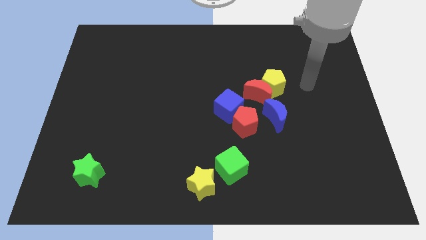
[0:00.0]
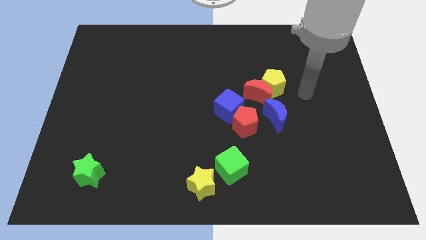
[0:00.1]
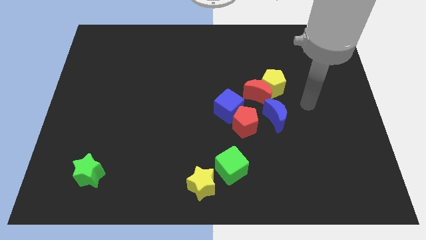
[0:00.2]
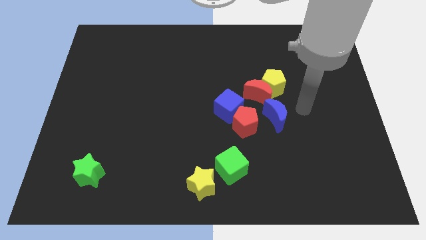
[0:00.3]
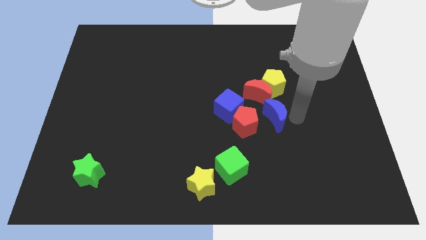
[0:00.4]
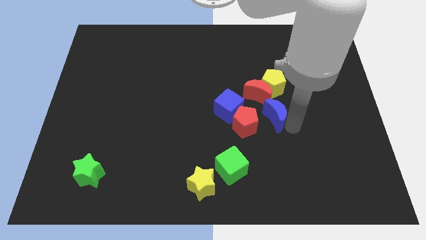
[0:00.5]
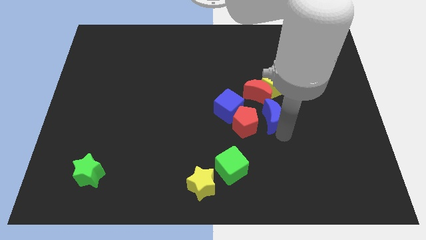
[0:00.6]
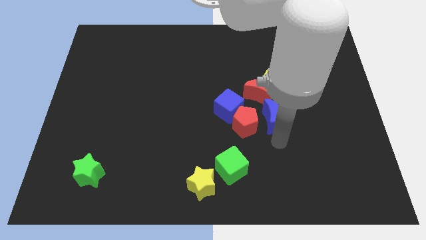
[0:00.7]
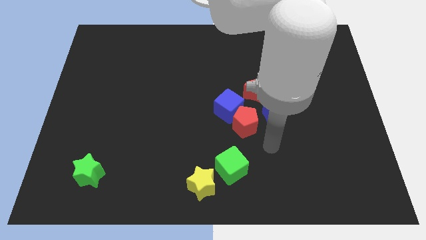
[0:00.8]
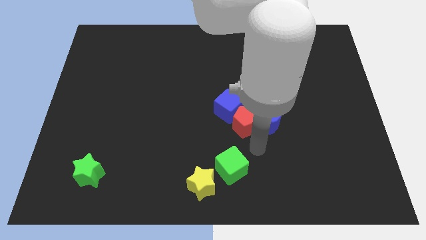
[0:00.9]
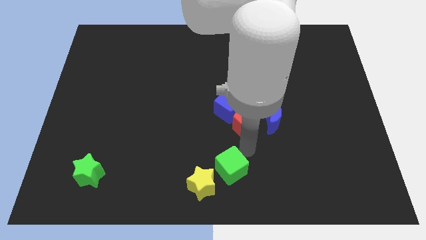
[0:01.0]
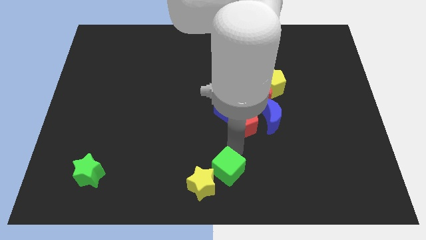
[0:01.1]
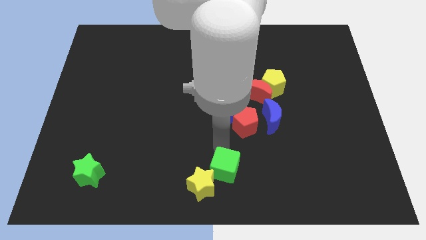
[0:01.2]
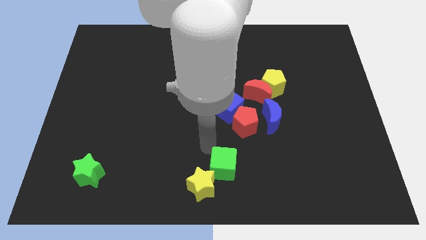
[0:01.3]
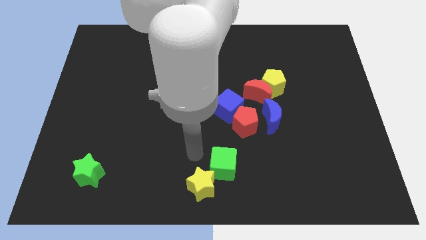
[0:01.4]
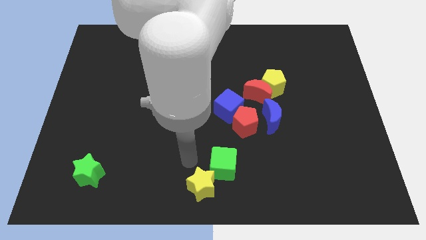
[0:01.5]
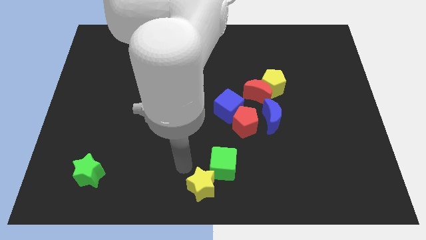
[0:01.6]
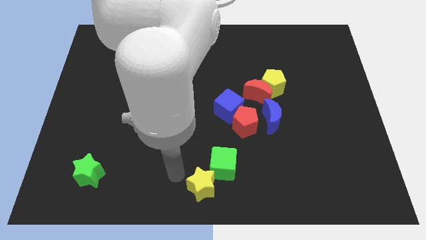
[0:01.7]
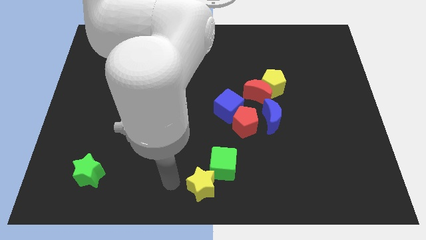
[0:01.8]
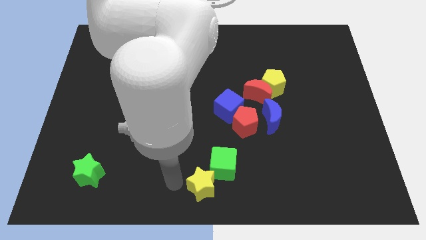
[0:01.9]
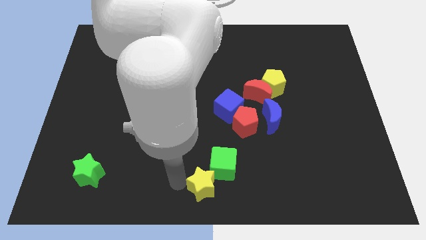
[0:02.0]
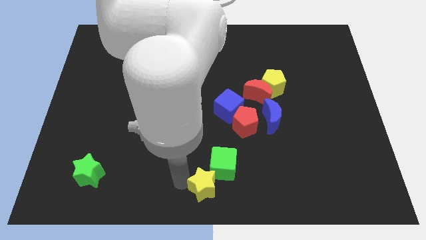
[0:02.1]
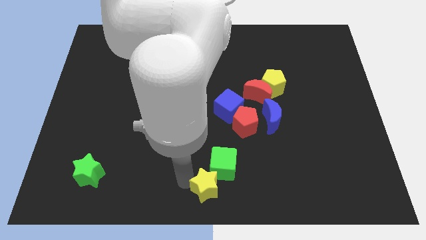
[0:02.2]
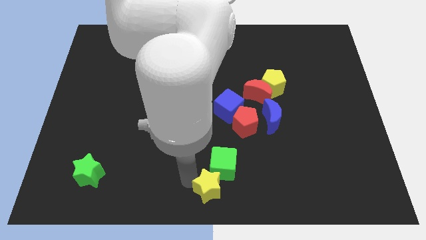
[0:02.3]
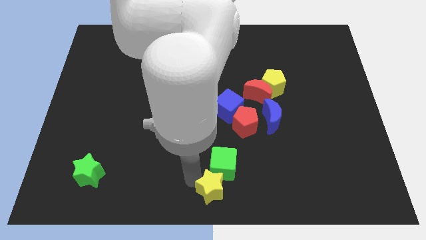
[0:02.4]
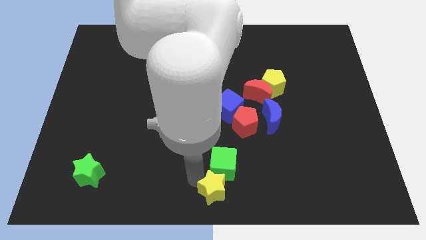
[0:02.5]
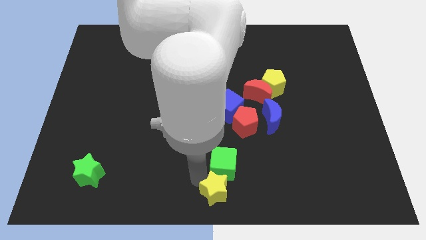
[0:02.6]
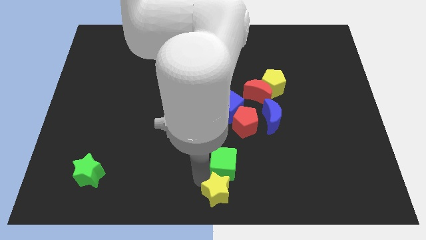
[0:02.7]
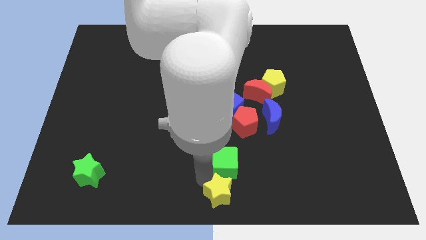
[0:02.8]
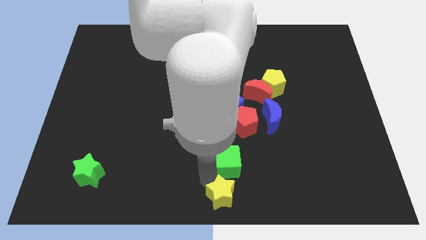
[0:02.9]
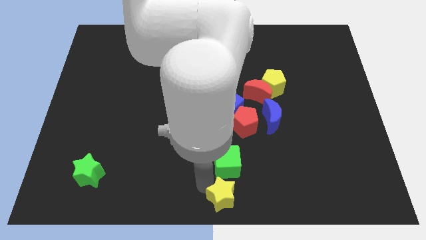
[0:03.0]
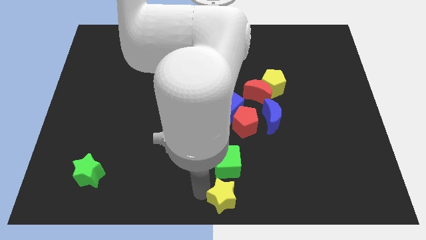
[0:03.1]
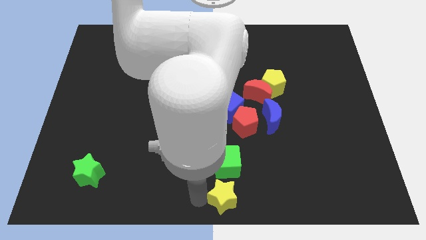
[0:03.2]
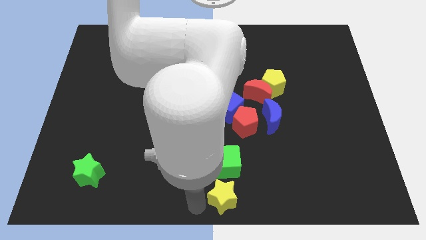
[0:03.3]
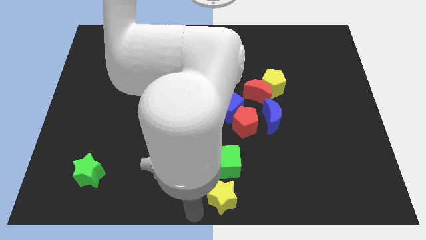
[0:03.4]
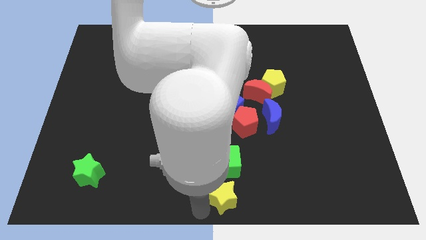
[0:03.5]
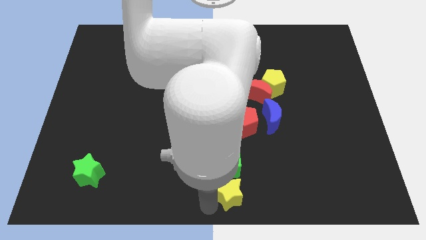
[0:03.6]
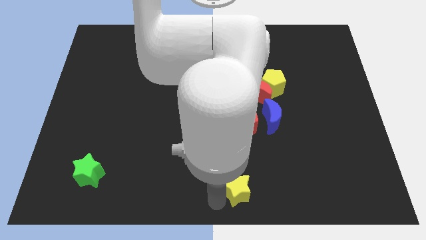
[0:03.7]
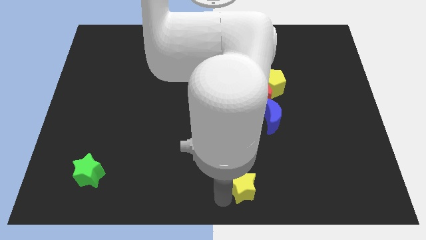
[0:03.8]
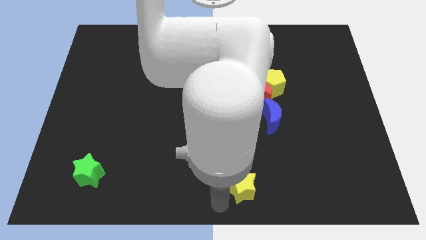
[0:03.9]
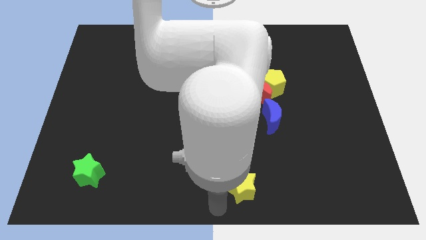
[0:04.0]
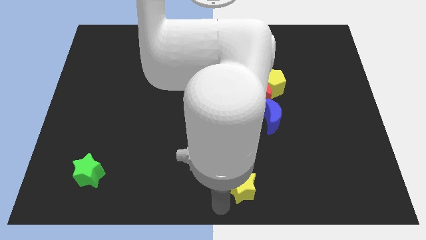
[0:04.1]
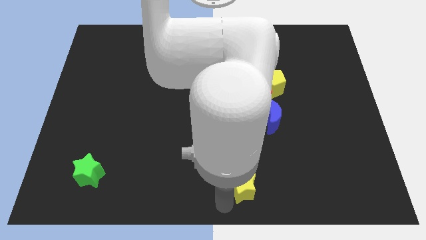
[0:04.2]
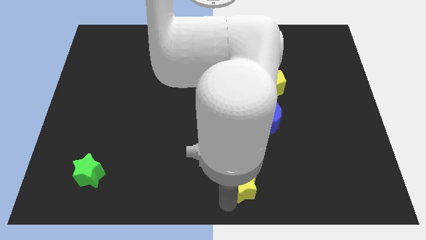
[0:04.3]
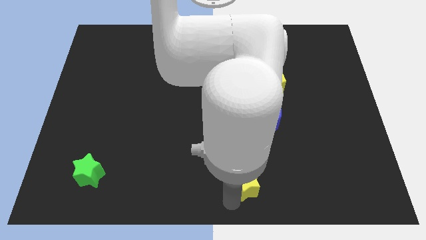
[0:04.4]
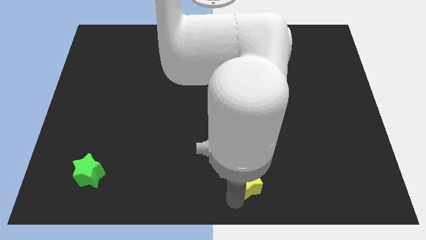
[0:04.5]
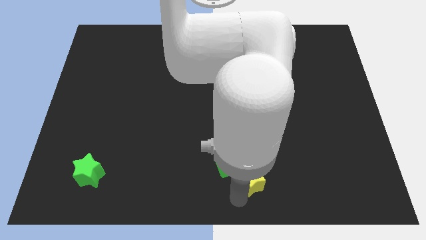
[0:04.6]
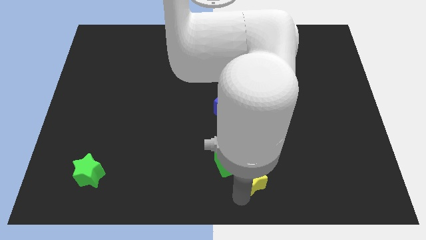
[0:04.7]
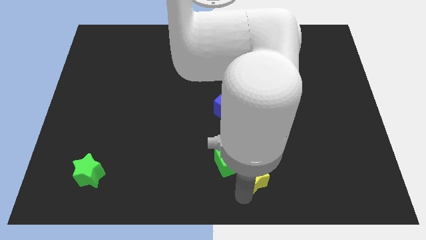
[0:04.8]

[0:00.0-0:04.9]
move the yellow star slightly diagonally up and to the right

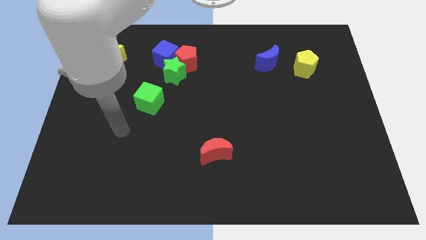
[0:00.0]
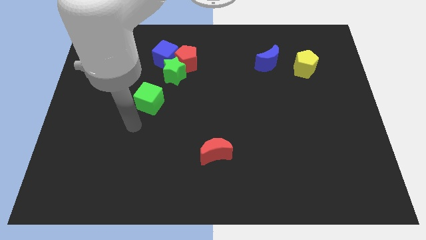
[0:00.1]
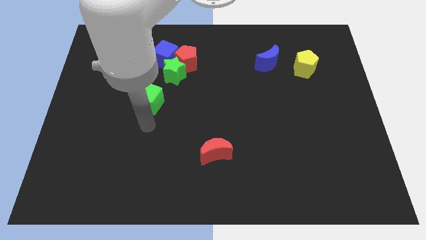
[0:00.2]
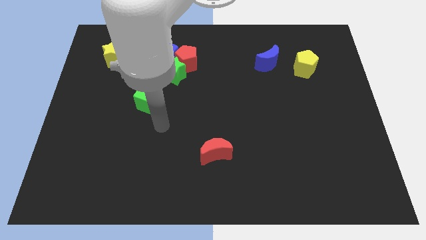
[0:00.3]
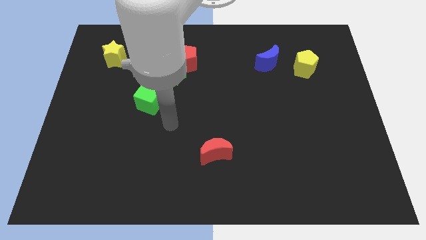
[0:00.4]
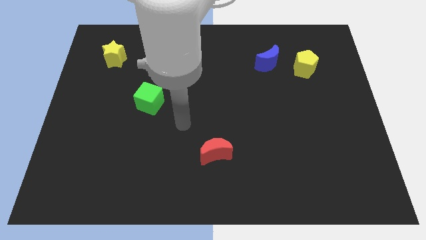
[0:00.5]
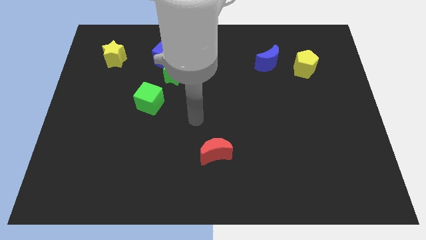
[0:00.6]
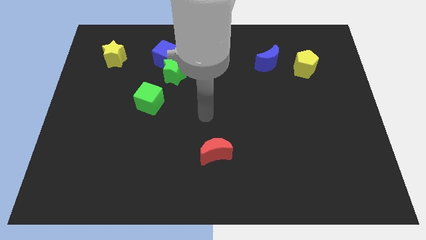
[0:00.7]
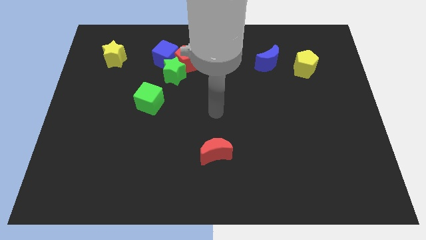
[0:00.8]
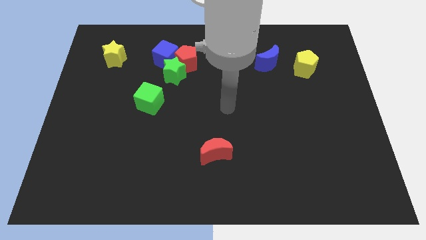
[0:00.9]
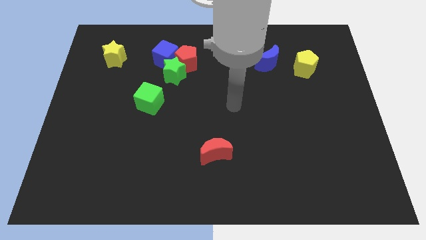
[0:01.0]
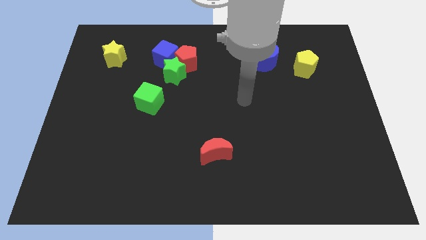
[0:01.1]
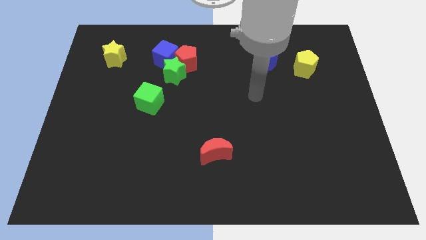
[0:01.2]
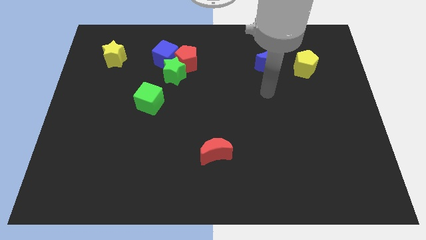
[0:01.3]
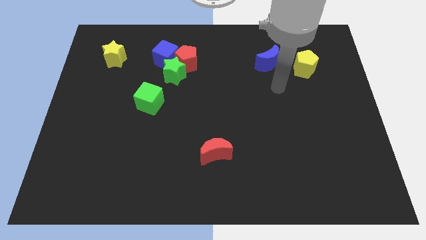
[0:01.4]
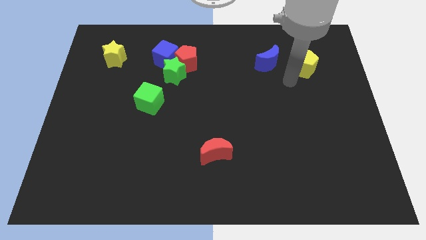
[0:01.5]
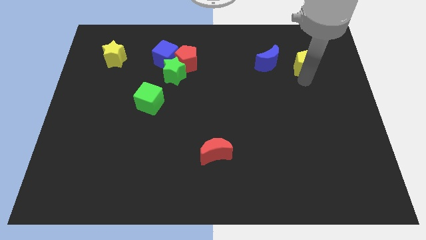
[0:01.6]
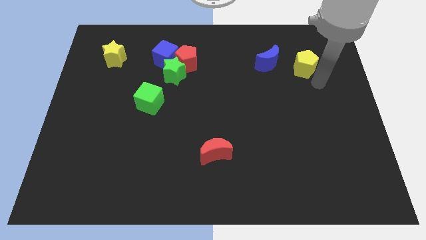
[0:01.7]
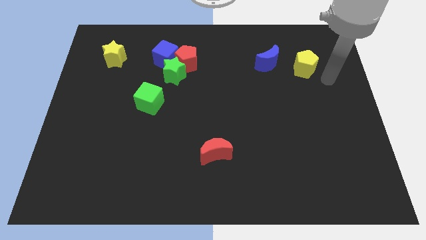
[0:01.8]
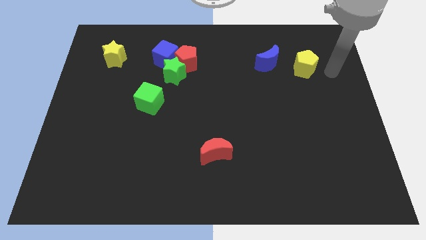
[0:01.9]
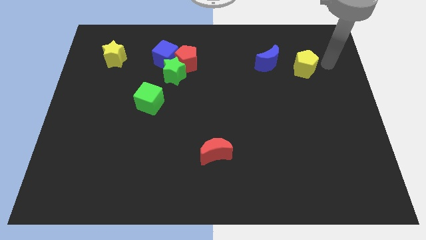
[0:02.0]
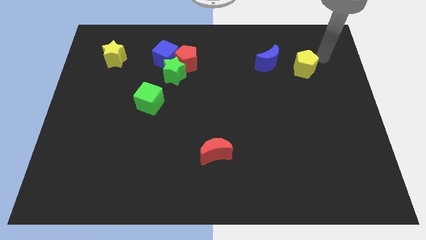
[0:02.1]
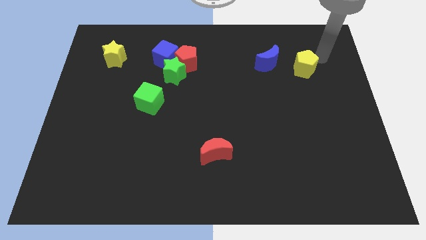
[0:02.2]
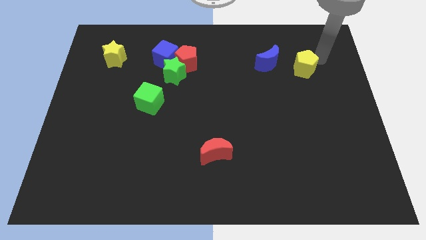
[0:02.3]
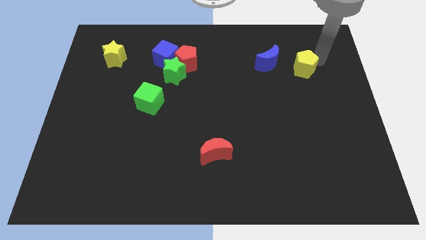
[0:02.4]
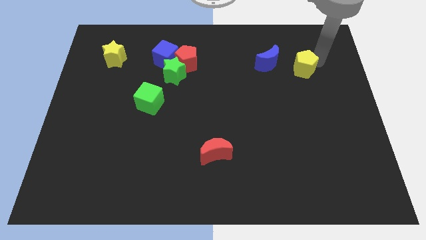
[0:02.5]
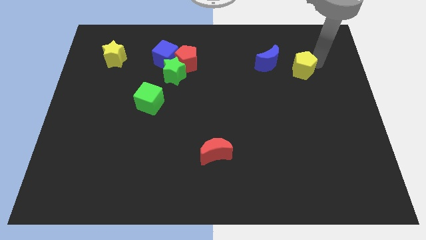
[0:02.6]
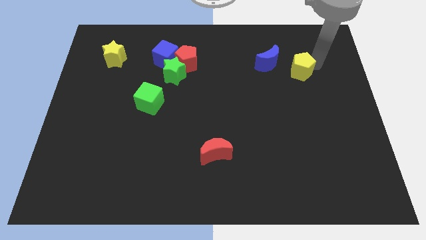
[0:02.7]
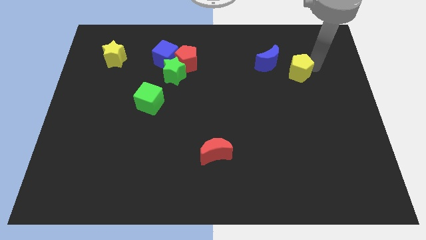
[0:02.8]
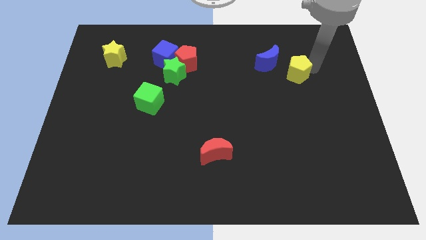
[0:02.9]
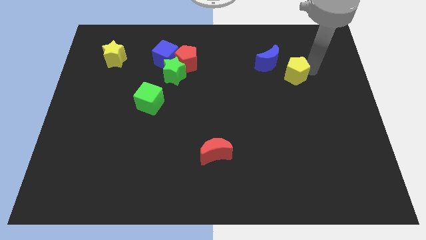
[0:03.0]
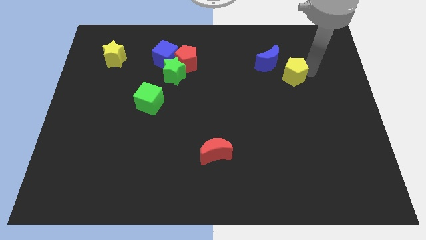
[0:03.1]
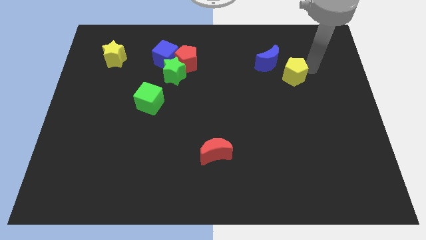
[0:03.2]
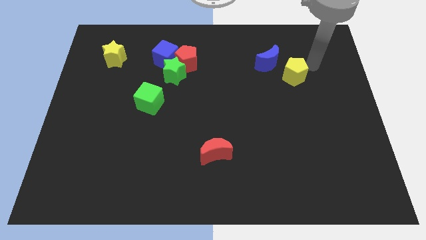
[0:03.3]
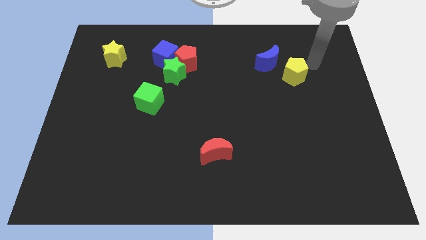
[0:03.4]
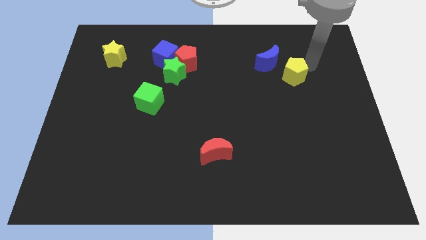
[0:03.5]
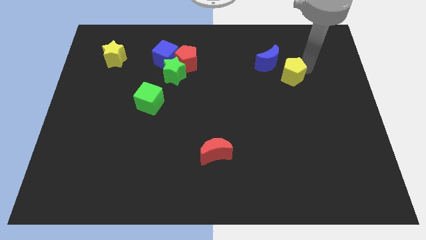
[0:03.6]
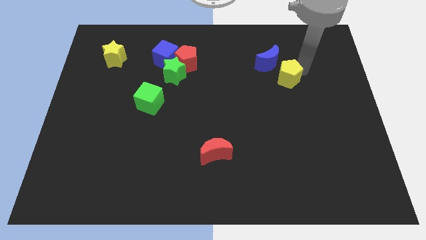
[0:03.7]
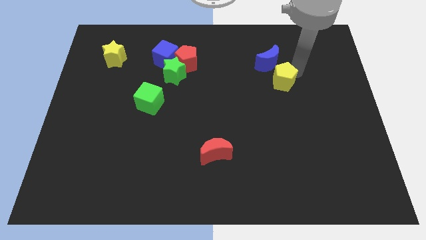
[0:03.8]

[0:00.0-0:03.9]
move the yellow pentagon a little diagonally down and to the left
